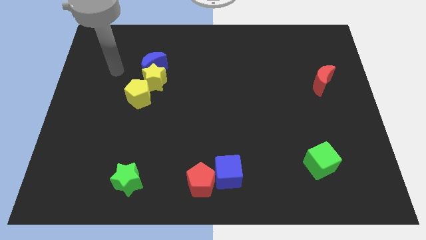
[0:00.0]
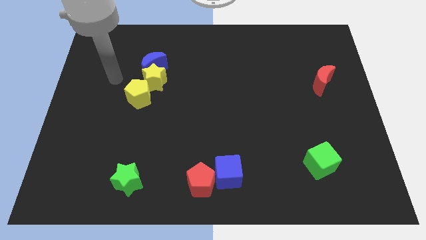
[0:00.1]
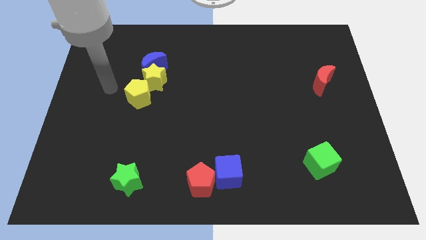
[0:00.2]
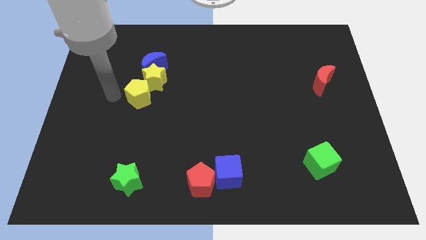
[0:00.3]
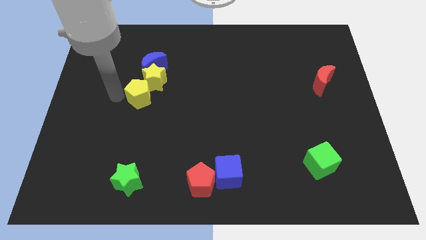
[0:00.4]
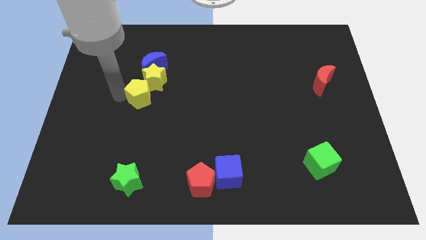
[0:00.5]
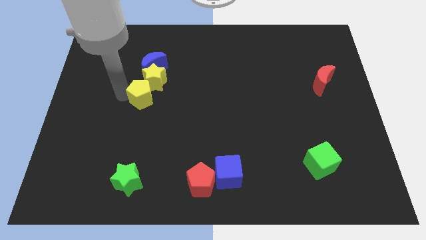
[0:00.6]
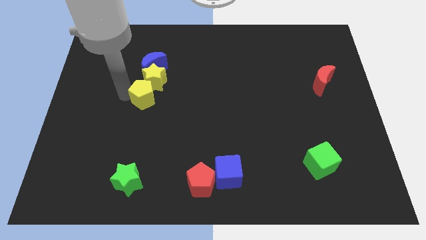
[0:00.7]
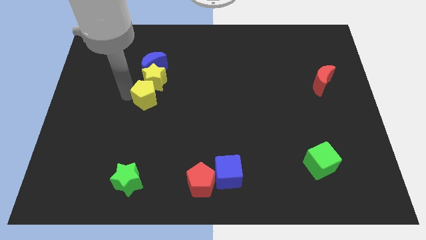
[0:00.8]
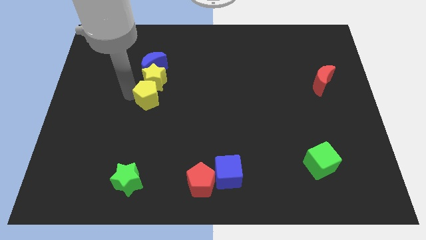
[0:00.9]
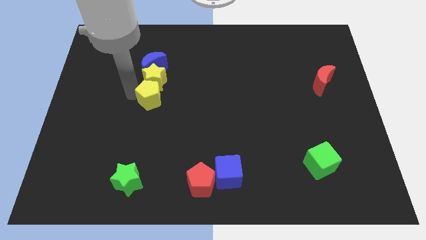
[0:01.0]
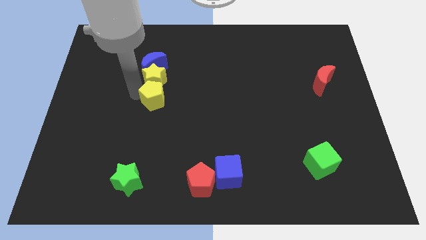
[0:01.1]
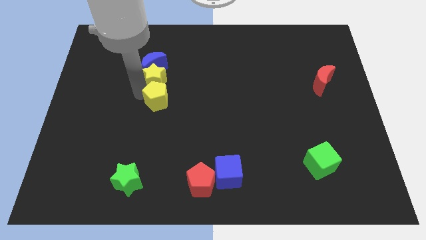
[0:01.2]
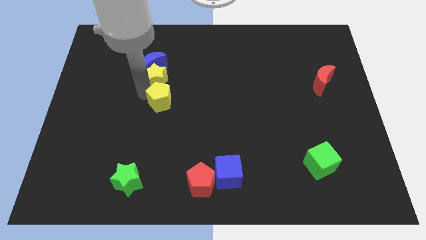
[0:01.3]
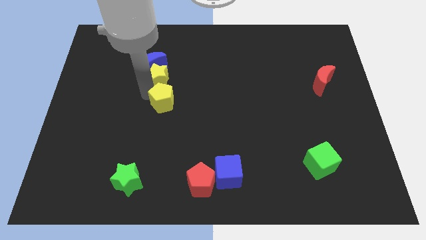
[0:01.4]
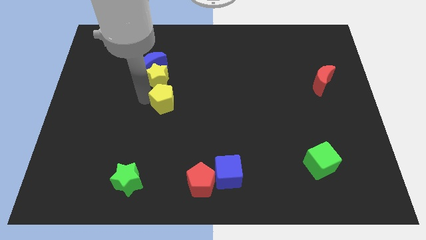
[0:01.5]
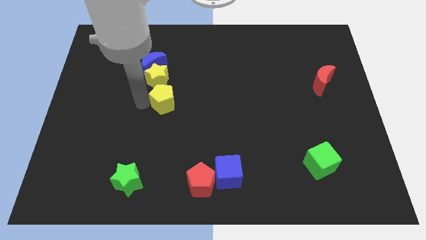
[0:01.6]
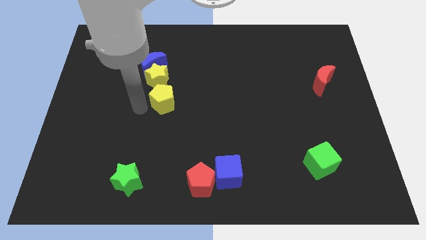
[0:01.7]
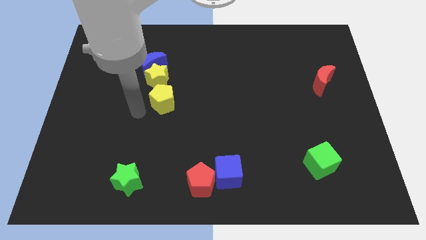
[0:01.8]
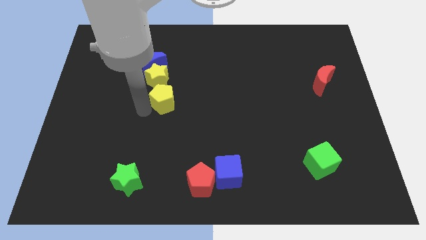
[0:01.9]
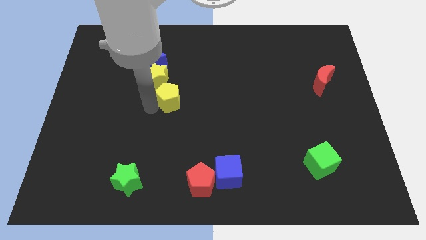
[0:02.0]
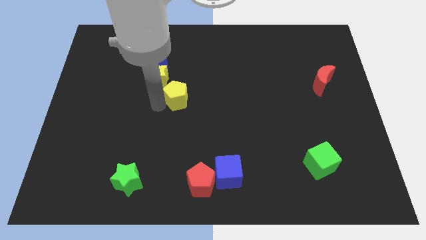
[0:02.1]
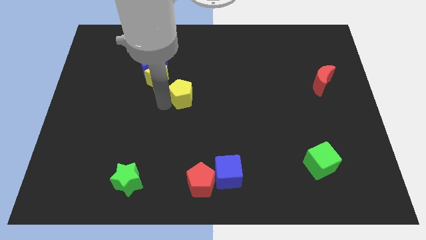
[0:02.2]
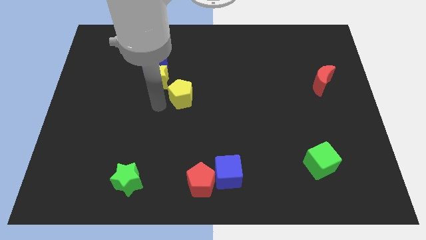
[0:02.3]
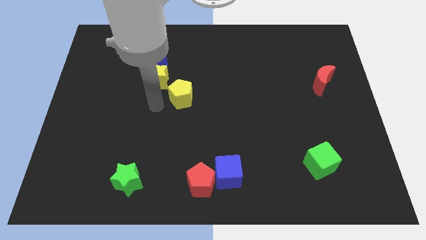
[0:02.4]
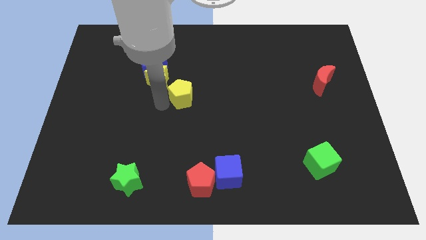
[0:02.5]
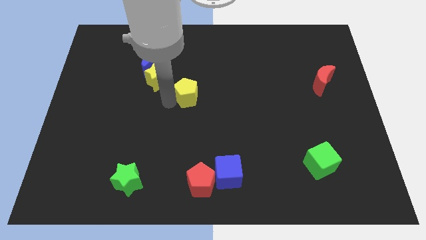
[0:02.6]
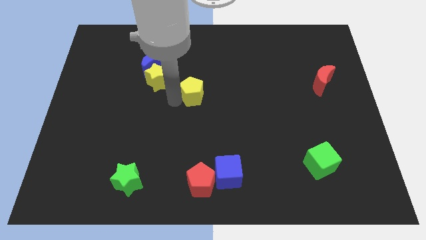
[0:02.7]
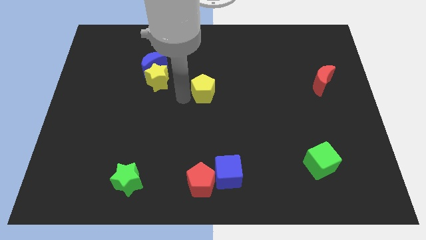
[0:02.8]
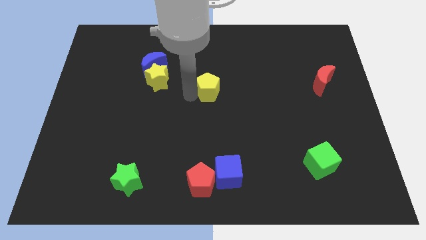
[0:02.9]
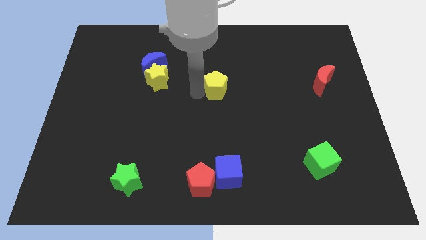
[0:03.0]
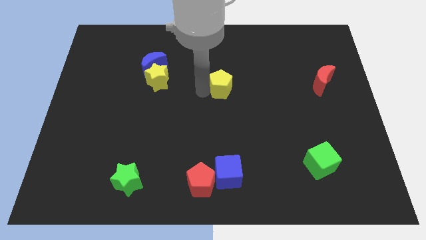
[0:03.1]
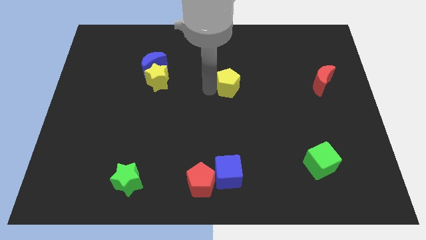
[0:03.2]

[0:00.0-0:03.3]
push the yellow pentagon to the right

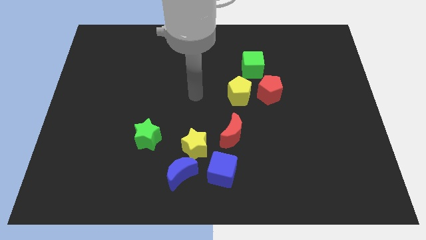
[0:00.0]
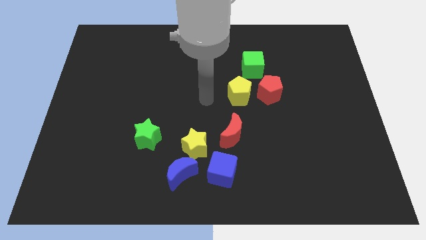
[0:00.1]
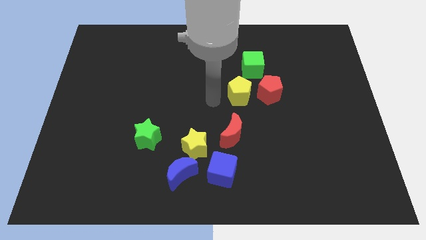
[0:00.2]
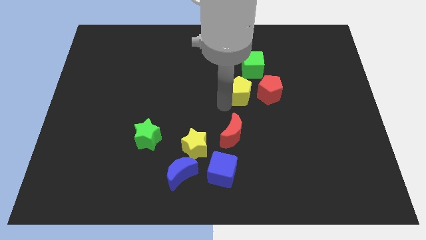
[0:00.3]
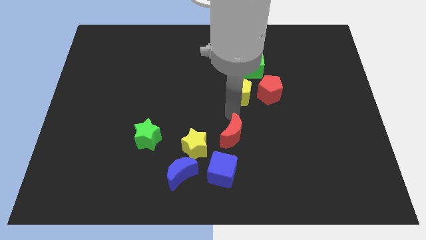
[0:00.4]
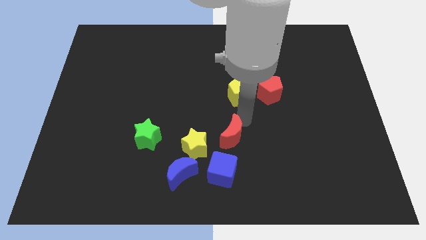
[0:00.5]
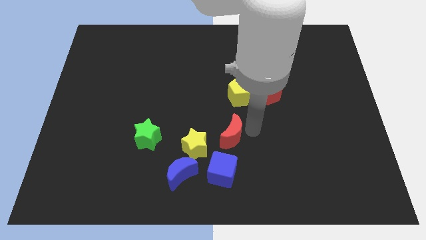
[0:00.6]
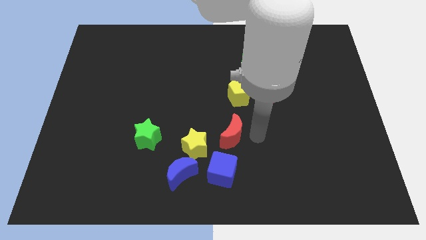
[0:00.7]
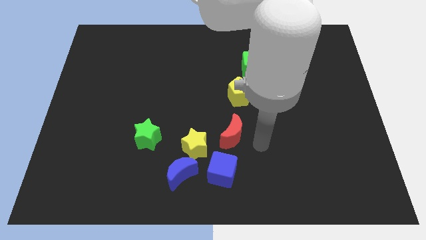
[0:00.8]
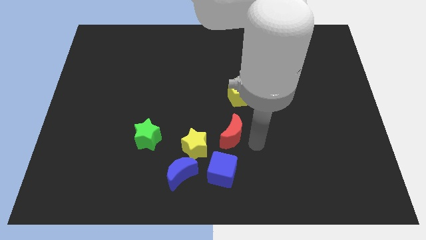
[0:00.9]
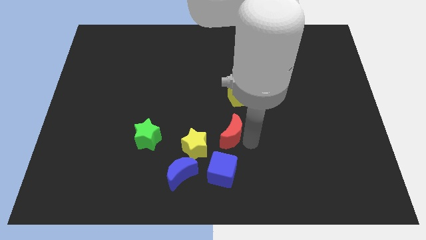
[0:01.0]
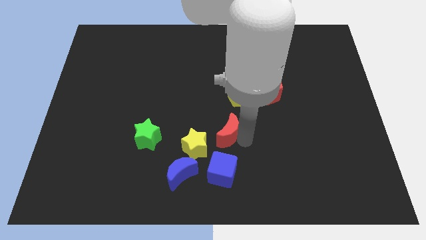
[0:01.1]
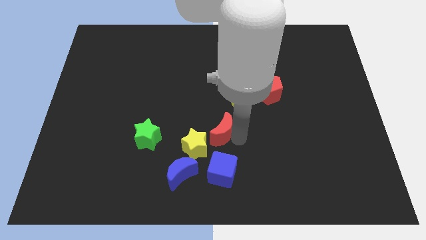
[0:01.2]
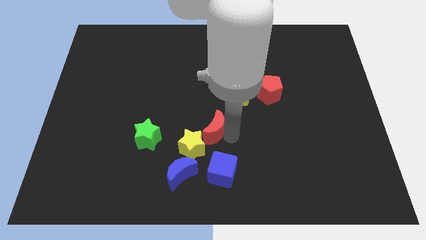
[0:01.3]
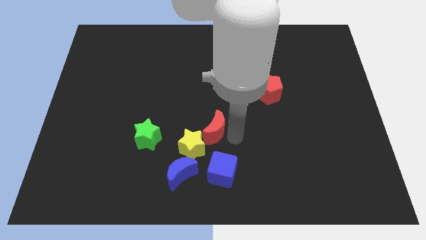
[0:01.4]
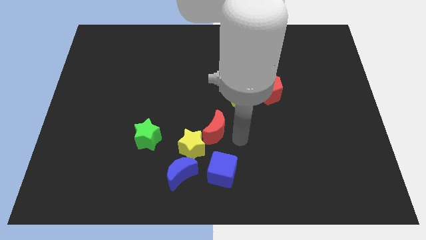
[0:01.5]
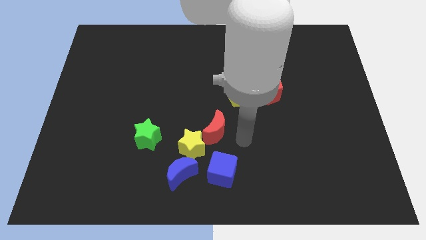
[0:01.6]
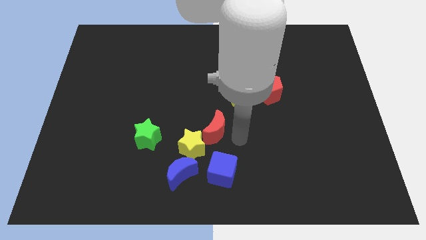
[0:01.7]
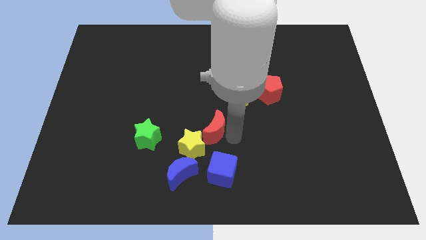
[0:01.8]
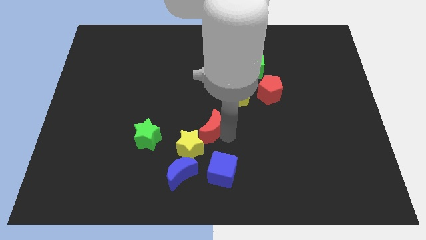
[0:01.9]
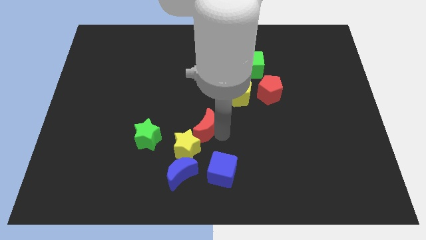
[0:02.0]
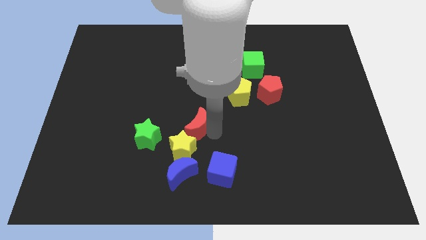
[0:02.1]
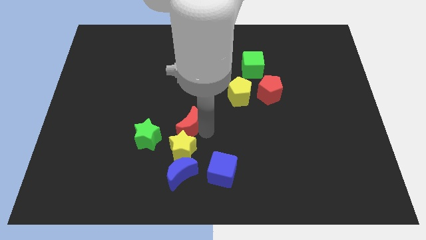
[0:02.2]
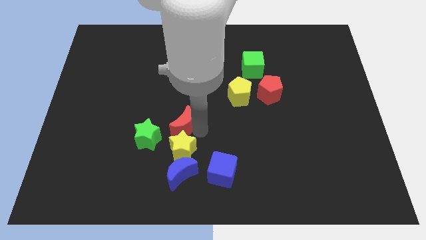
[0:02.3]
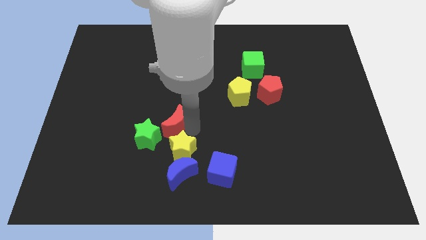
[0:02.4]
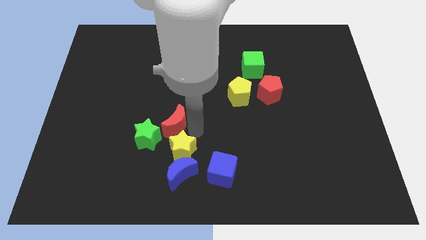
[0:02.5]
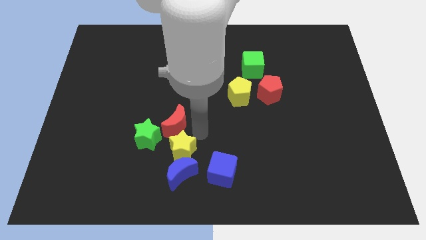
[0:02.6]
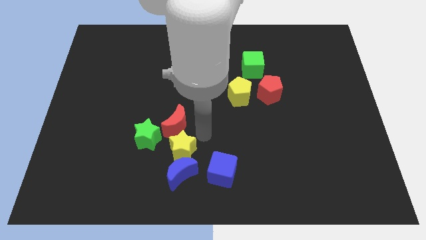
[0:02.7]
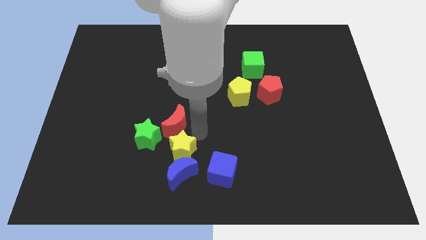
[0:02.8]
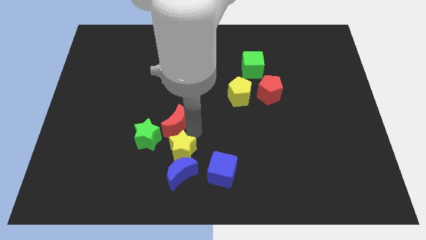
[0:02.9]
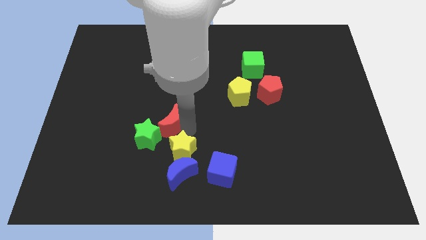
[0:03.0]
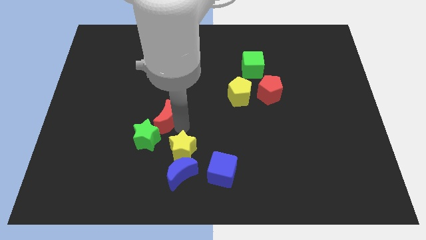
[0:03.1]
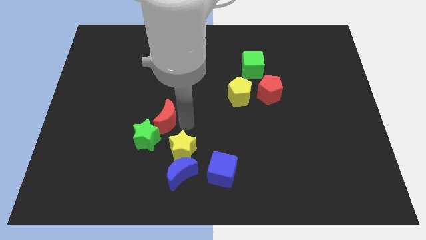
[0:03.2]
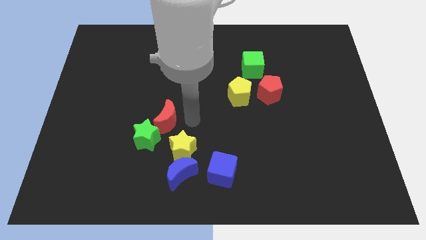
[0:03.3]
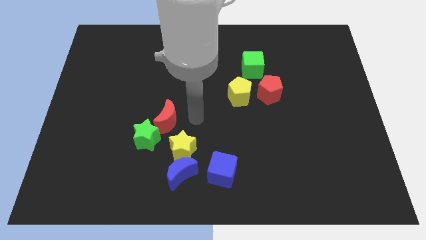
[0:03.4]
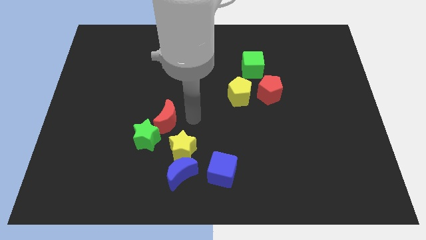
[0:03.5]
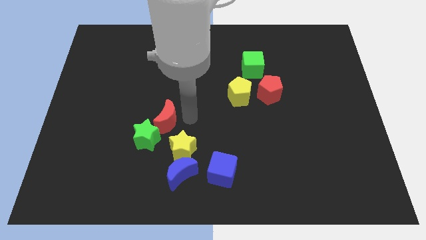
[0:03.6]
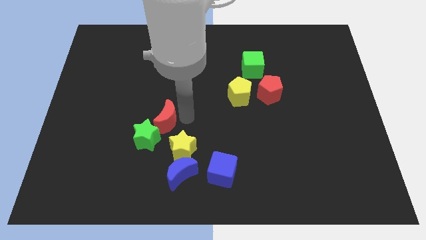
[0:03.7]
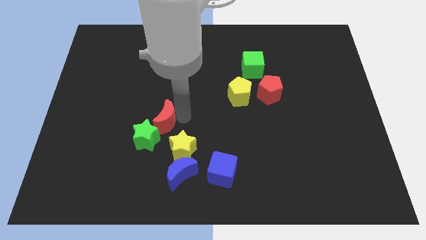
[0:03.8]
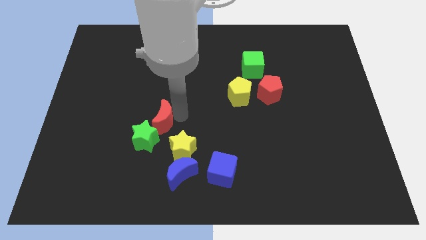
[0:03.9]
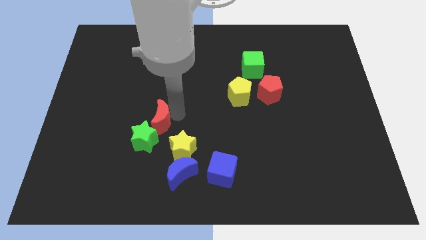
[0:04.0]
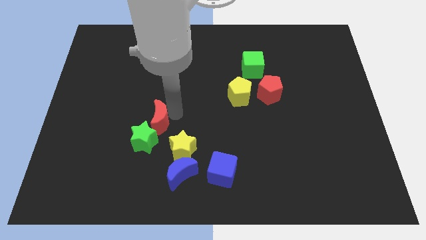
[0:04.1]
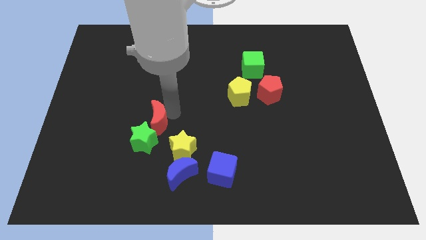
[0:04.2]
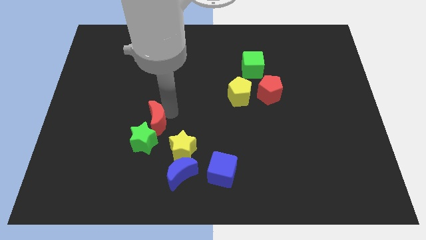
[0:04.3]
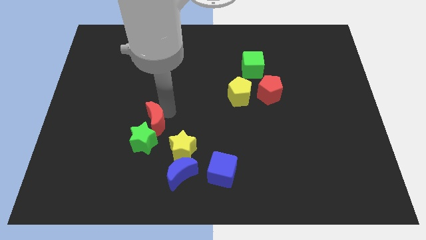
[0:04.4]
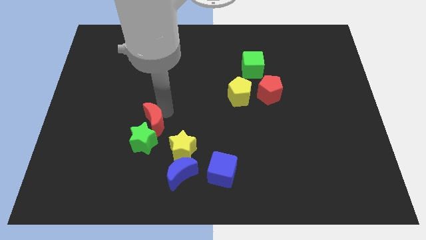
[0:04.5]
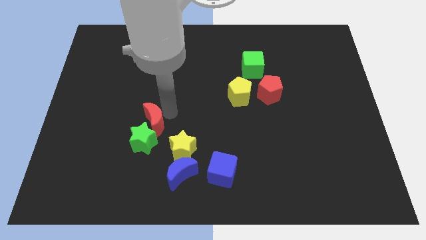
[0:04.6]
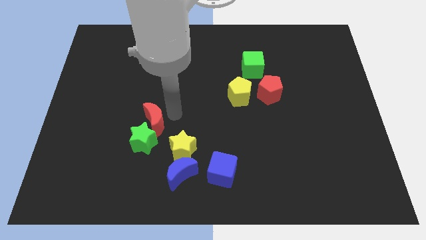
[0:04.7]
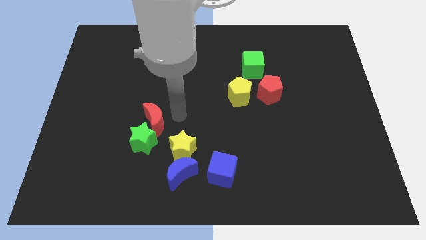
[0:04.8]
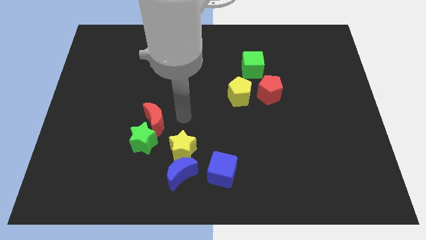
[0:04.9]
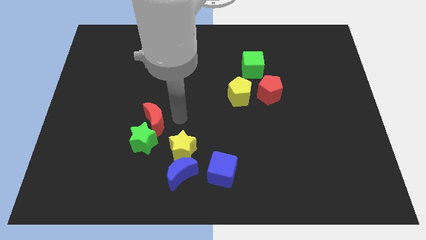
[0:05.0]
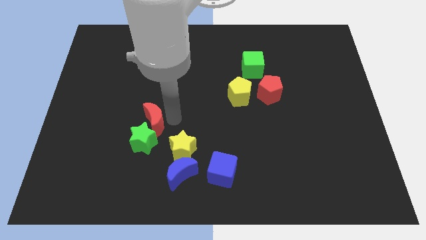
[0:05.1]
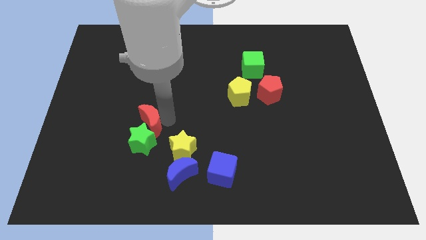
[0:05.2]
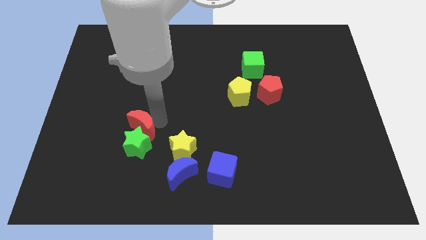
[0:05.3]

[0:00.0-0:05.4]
slide the red moon left
